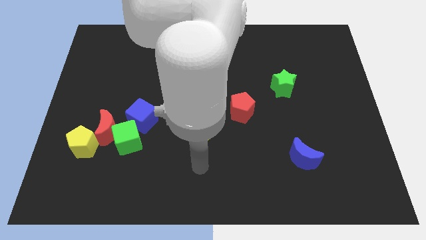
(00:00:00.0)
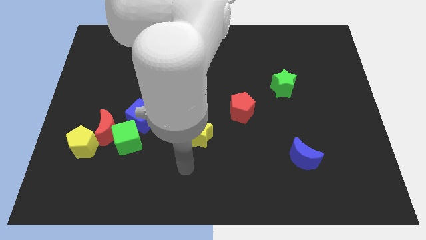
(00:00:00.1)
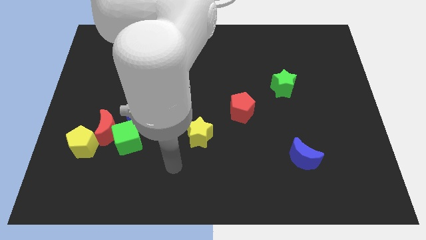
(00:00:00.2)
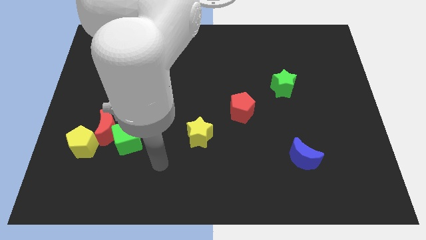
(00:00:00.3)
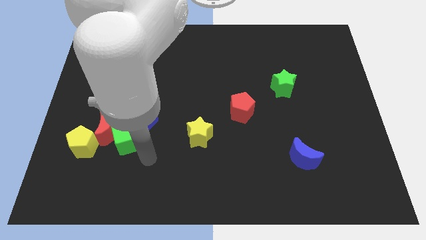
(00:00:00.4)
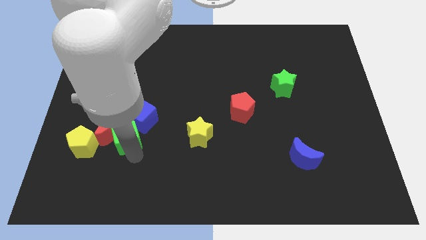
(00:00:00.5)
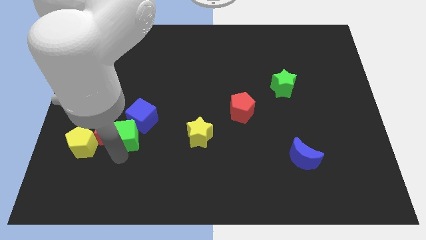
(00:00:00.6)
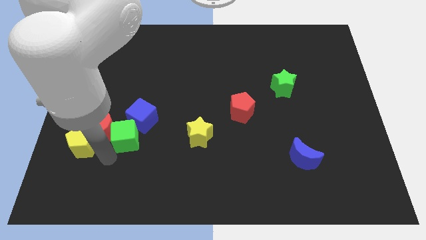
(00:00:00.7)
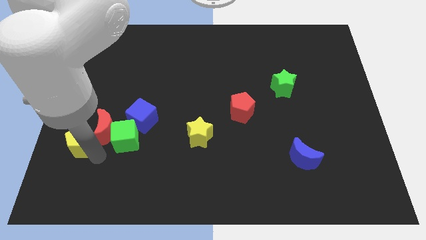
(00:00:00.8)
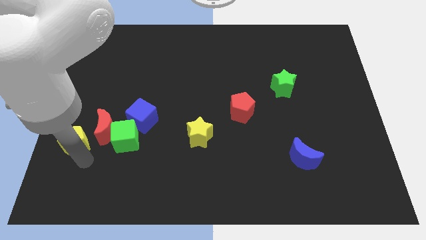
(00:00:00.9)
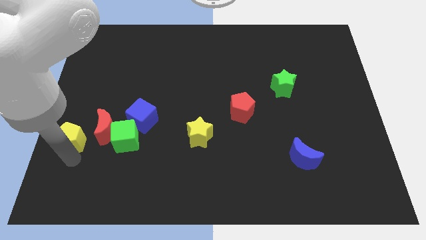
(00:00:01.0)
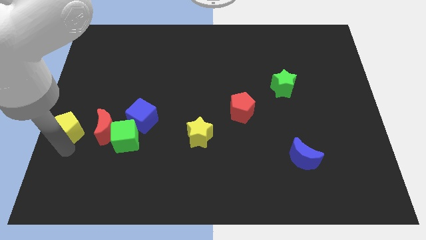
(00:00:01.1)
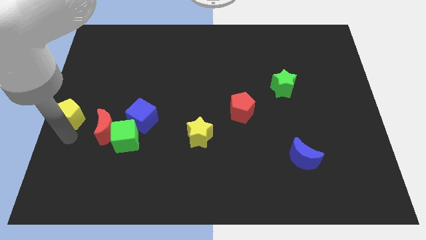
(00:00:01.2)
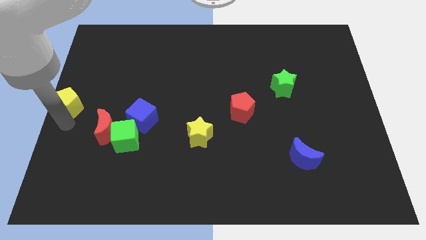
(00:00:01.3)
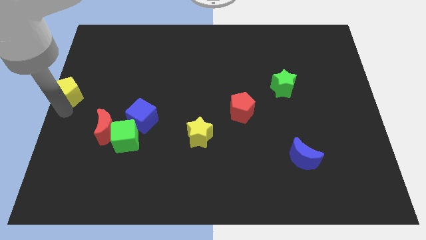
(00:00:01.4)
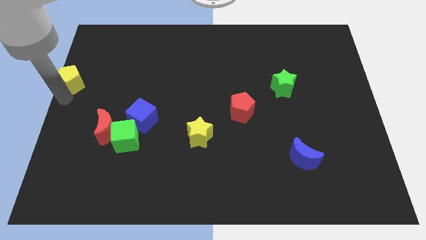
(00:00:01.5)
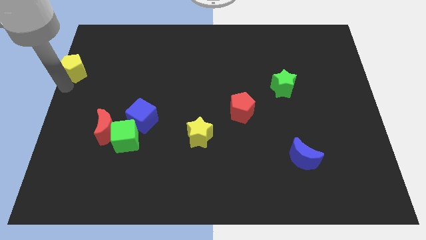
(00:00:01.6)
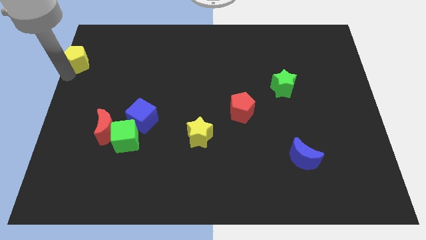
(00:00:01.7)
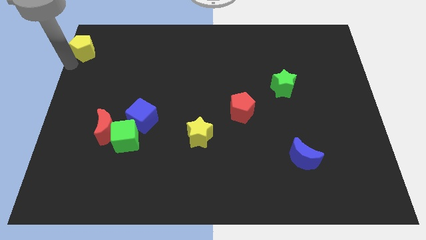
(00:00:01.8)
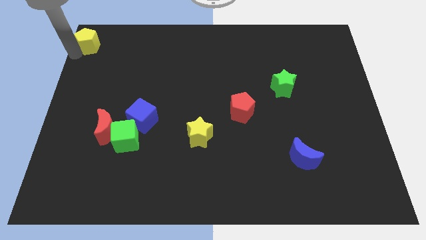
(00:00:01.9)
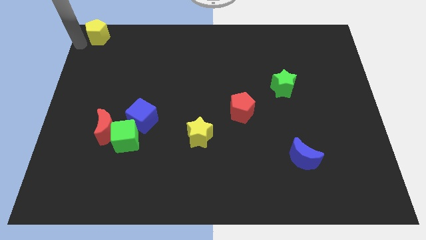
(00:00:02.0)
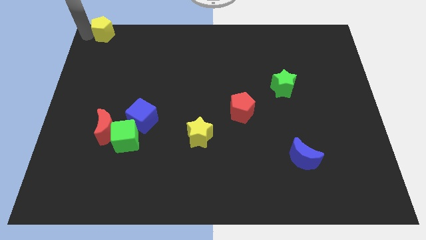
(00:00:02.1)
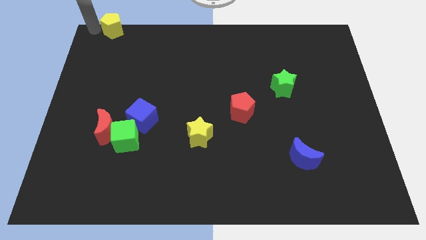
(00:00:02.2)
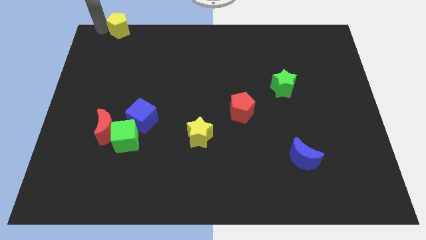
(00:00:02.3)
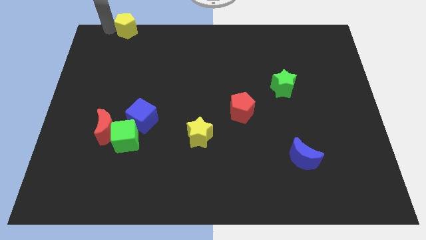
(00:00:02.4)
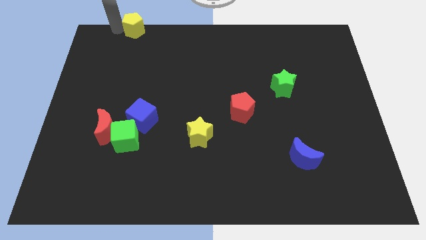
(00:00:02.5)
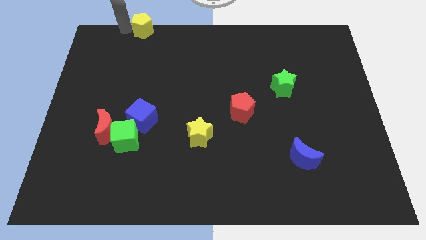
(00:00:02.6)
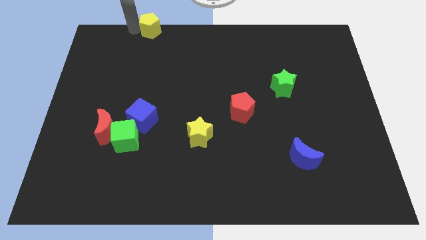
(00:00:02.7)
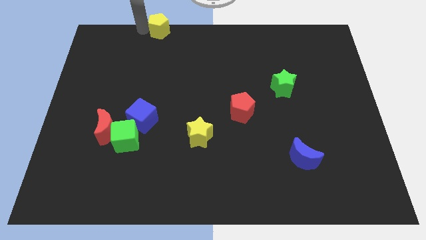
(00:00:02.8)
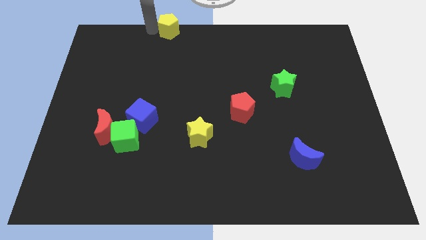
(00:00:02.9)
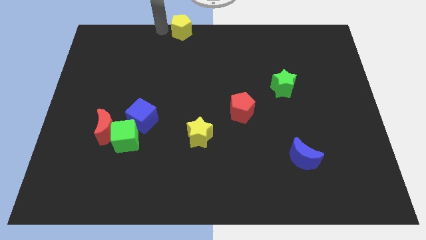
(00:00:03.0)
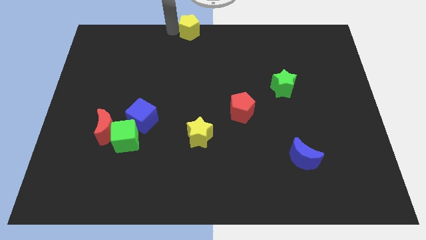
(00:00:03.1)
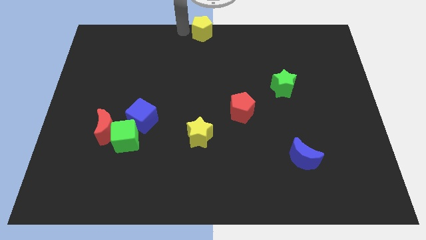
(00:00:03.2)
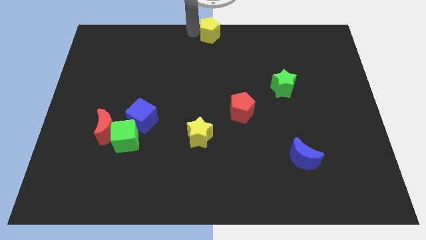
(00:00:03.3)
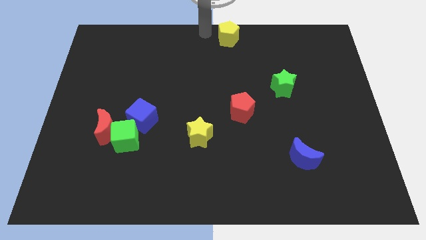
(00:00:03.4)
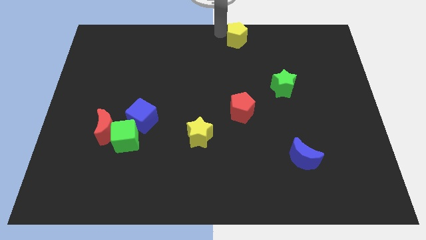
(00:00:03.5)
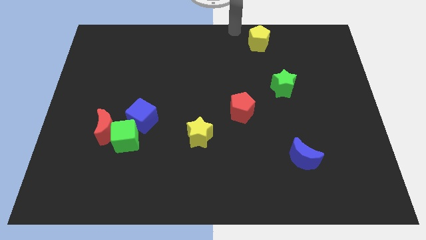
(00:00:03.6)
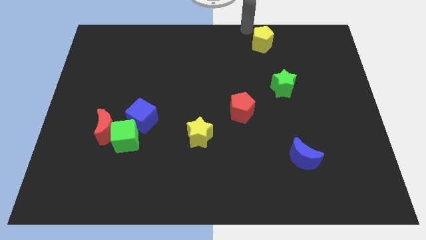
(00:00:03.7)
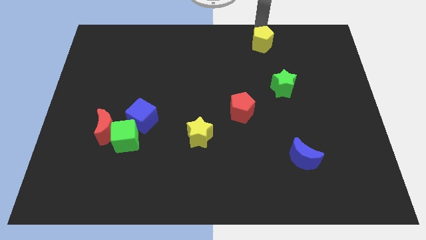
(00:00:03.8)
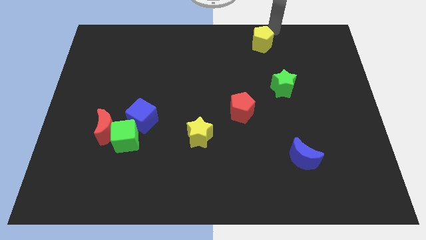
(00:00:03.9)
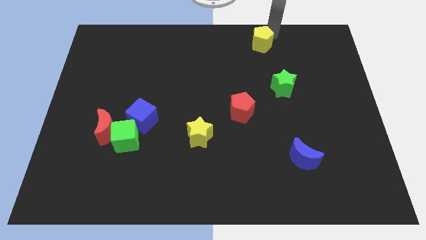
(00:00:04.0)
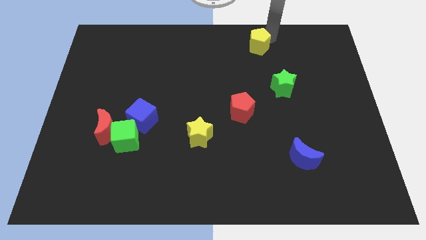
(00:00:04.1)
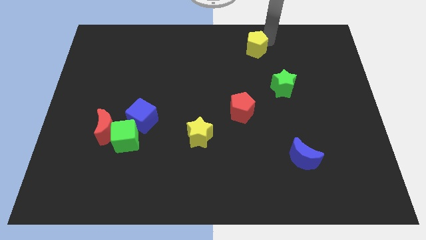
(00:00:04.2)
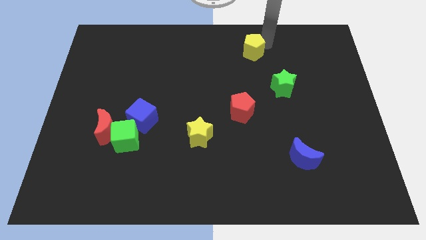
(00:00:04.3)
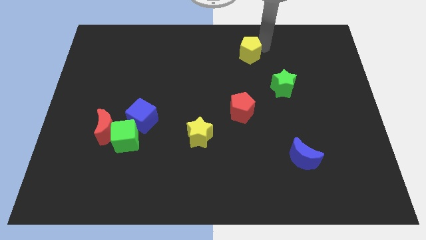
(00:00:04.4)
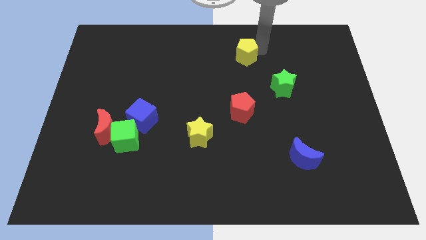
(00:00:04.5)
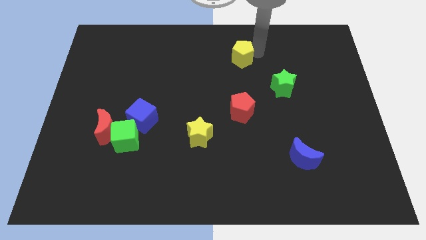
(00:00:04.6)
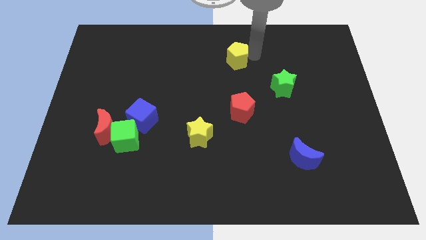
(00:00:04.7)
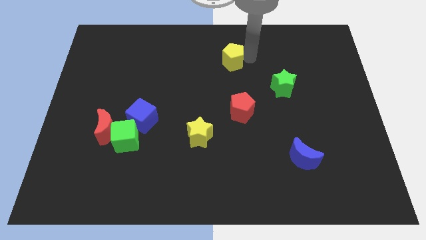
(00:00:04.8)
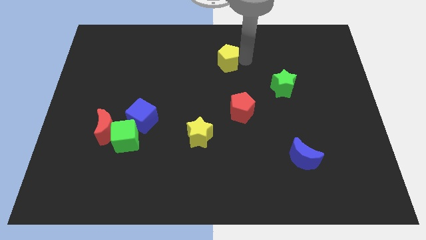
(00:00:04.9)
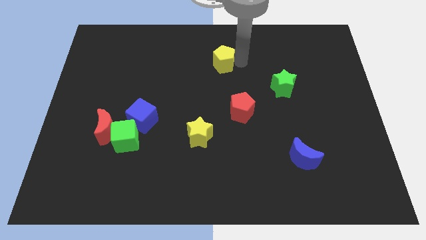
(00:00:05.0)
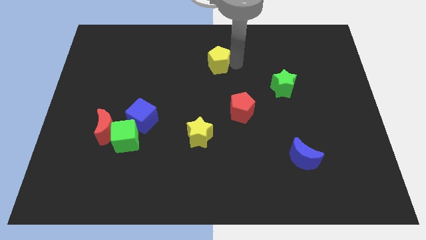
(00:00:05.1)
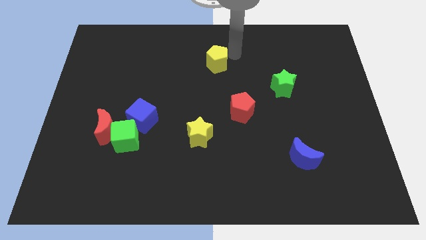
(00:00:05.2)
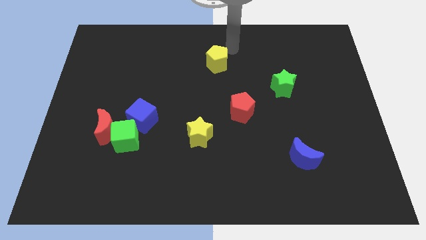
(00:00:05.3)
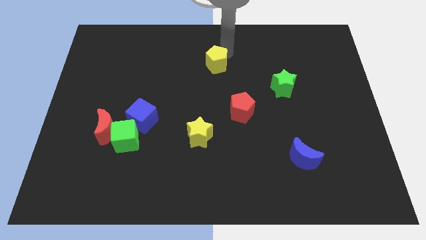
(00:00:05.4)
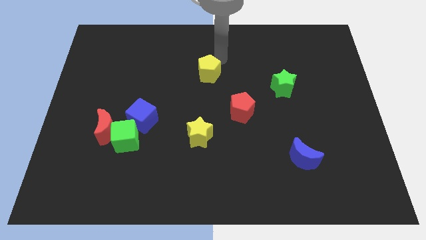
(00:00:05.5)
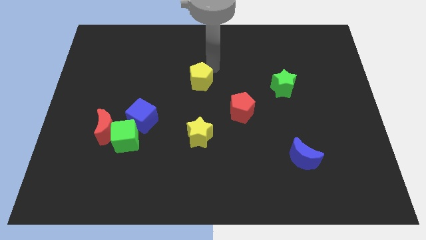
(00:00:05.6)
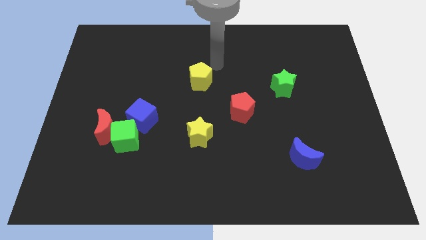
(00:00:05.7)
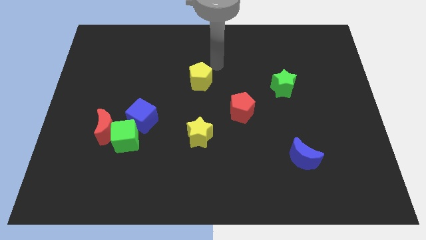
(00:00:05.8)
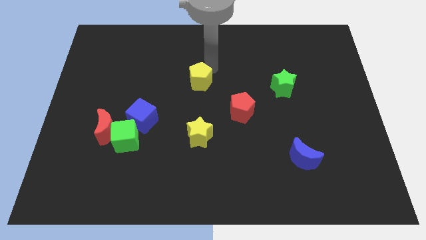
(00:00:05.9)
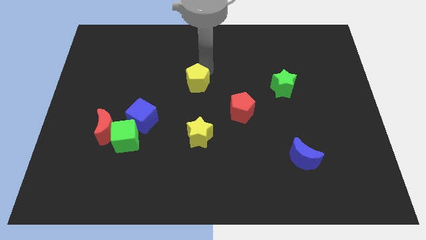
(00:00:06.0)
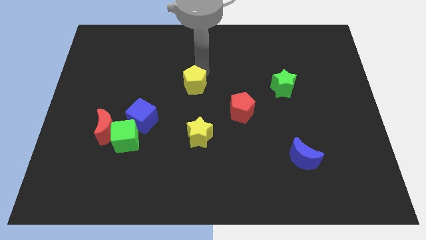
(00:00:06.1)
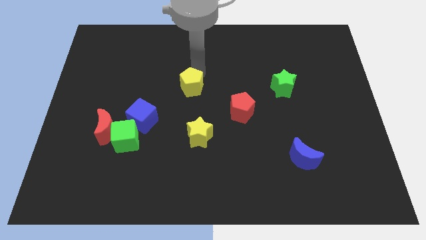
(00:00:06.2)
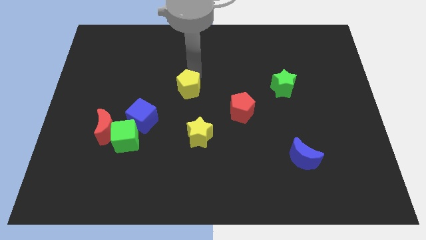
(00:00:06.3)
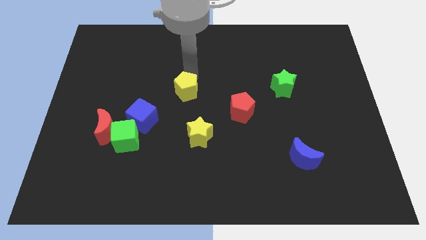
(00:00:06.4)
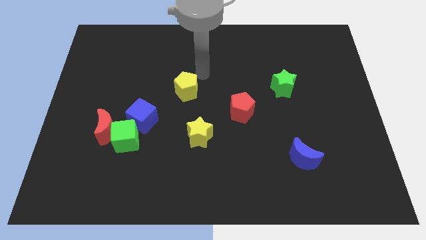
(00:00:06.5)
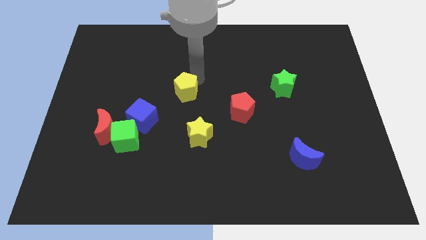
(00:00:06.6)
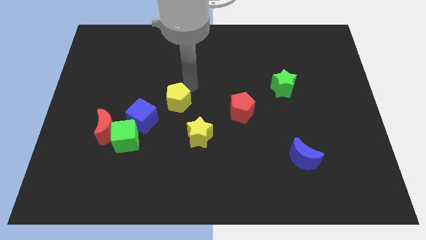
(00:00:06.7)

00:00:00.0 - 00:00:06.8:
push the yellow pentagon right slightly

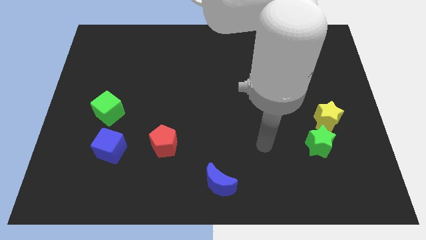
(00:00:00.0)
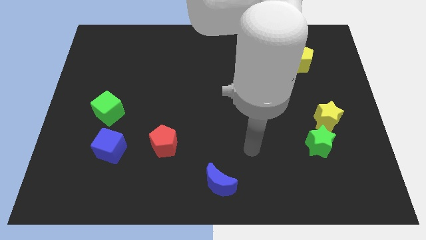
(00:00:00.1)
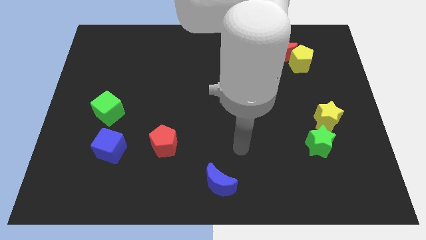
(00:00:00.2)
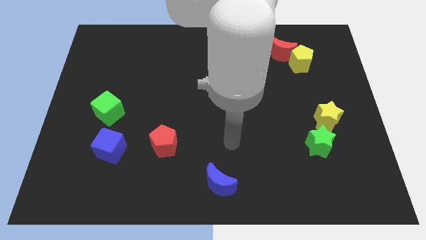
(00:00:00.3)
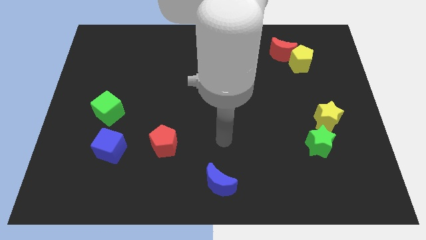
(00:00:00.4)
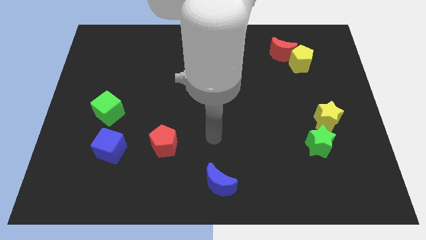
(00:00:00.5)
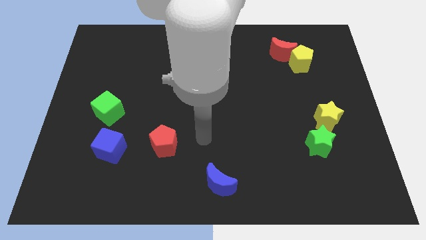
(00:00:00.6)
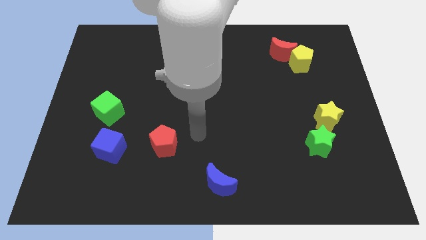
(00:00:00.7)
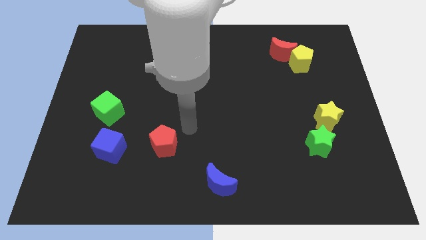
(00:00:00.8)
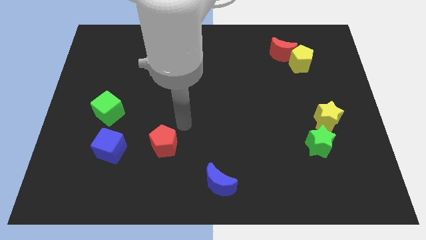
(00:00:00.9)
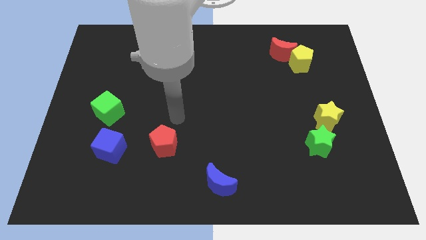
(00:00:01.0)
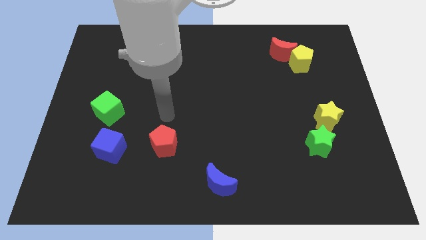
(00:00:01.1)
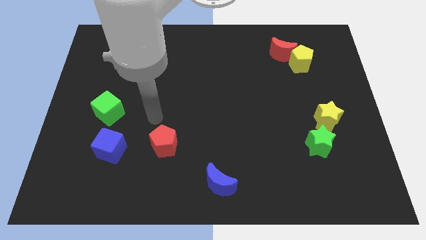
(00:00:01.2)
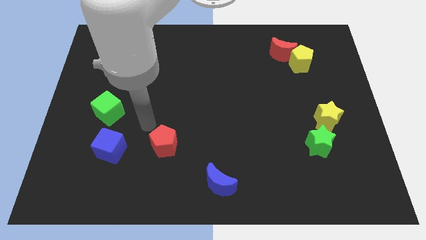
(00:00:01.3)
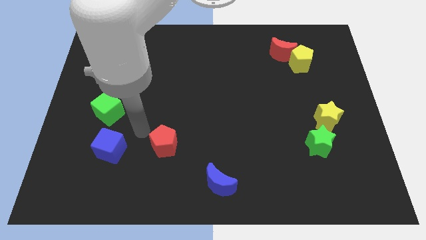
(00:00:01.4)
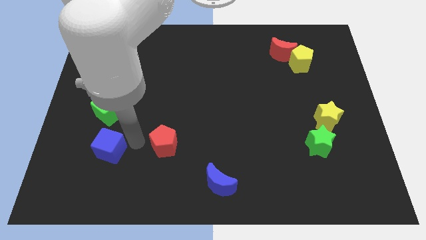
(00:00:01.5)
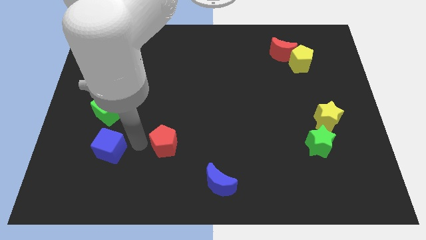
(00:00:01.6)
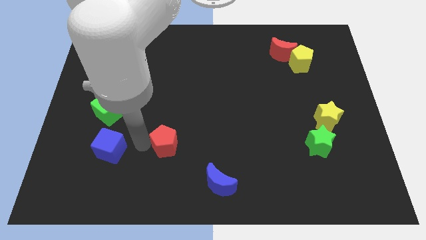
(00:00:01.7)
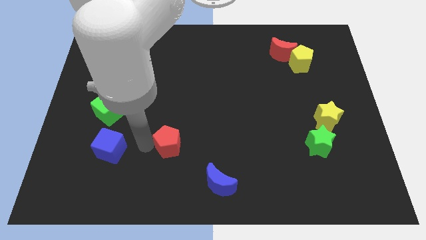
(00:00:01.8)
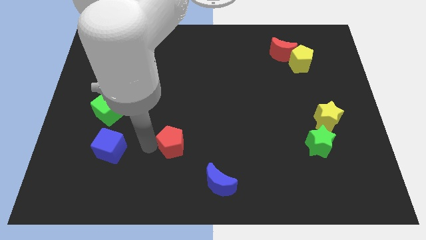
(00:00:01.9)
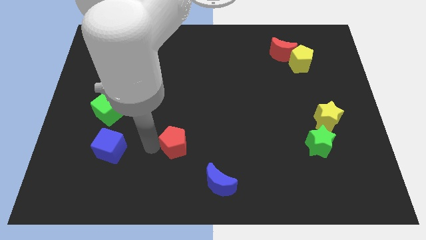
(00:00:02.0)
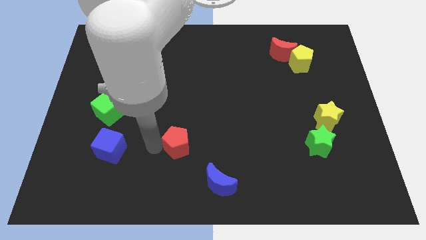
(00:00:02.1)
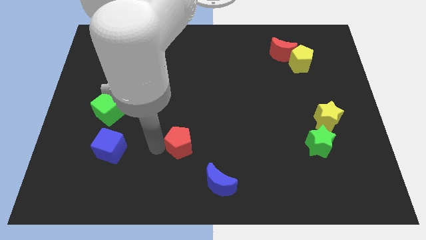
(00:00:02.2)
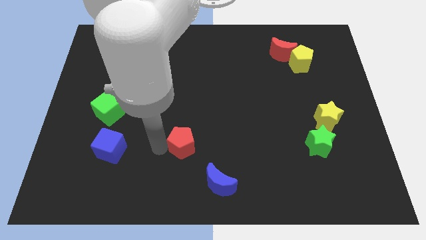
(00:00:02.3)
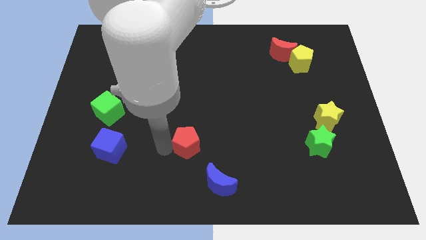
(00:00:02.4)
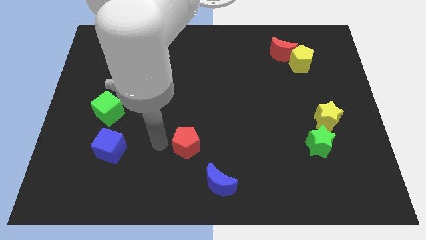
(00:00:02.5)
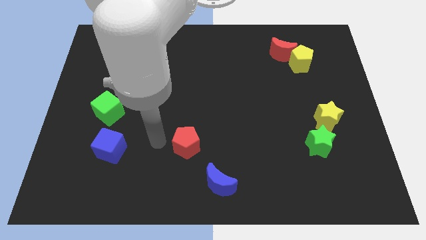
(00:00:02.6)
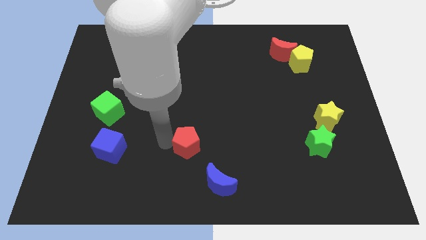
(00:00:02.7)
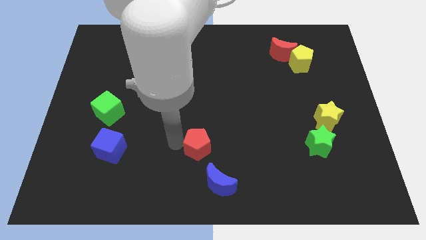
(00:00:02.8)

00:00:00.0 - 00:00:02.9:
slightly push the red pentagon to the right
